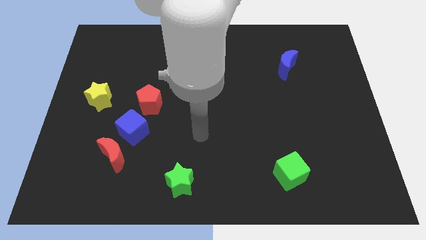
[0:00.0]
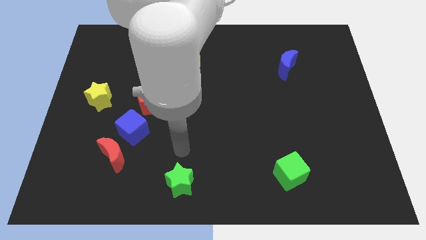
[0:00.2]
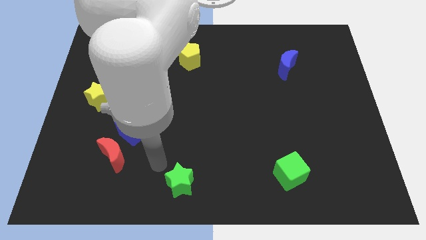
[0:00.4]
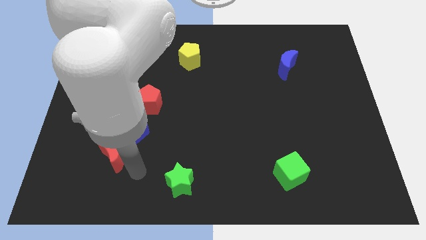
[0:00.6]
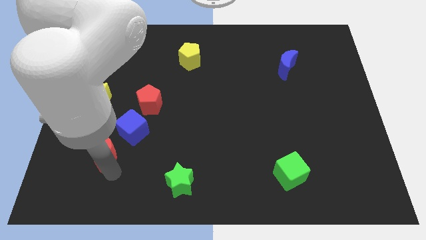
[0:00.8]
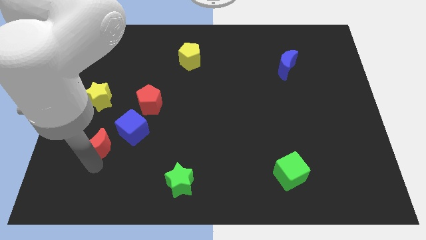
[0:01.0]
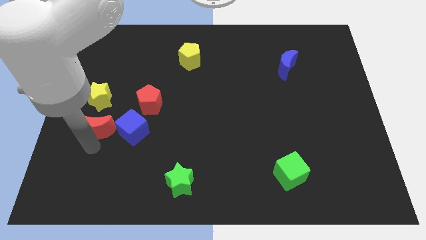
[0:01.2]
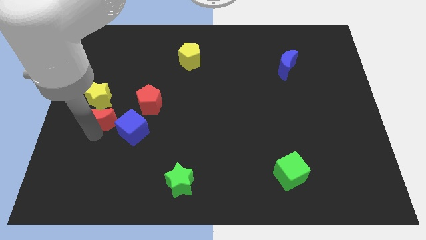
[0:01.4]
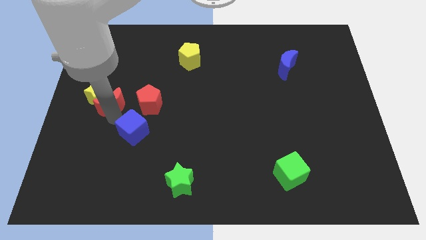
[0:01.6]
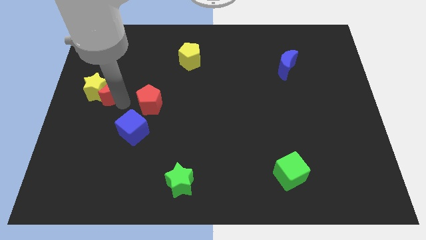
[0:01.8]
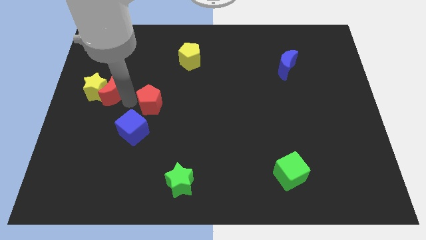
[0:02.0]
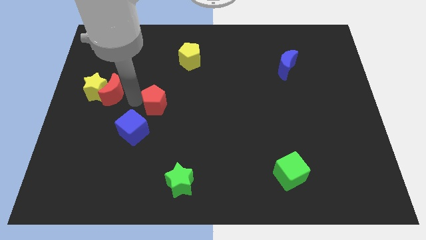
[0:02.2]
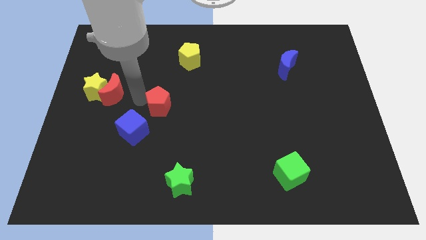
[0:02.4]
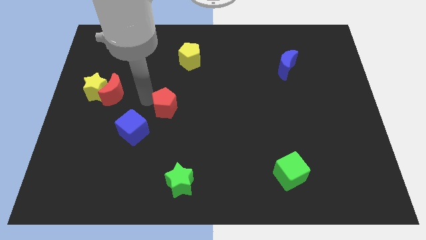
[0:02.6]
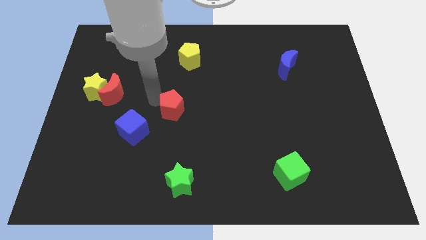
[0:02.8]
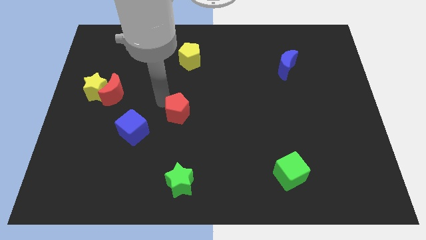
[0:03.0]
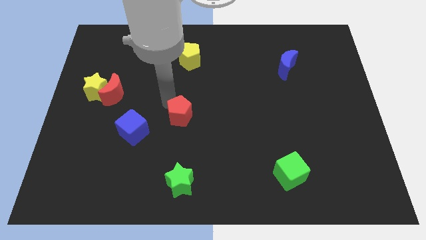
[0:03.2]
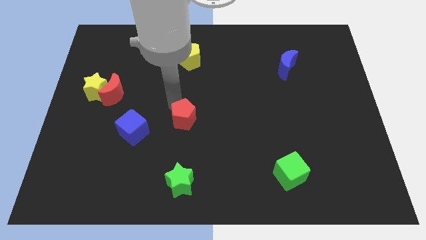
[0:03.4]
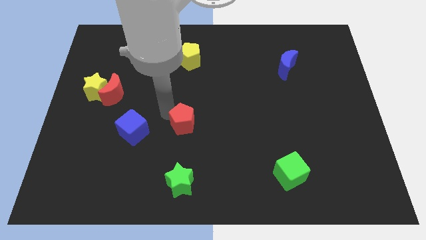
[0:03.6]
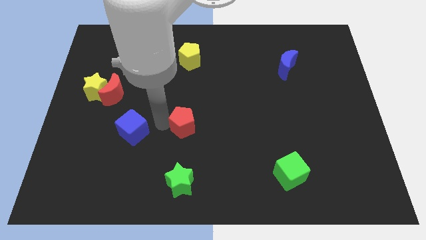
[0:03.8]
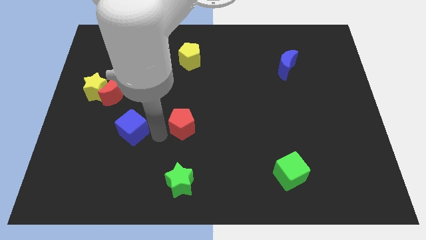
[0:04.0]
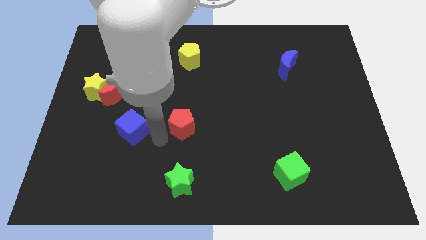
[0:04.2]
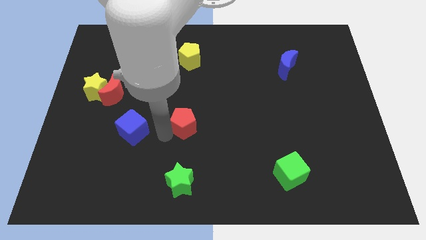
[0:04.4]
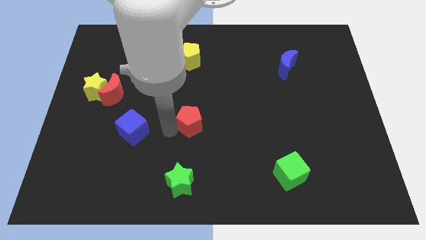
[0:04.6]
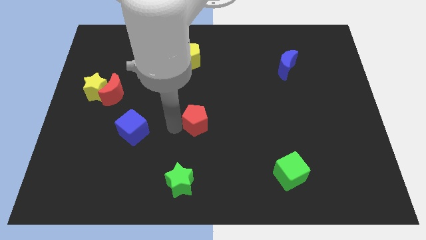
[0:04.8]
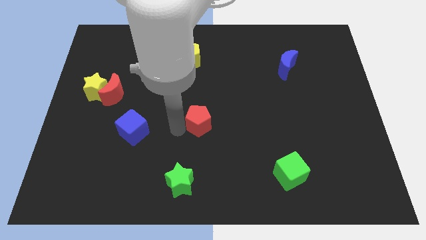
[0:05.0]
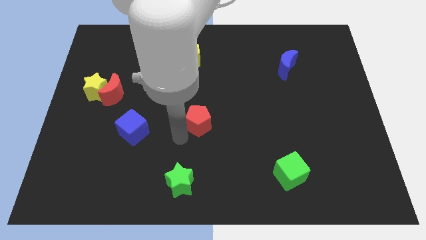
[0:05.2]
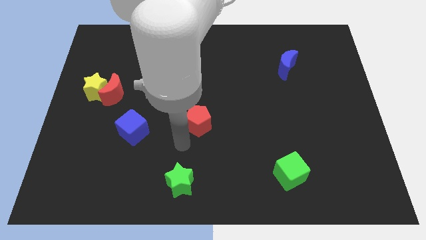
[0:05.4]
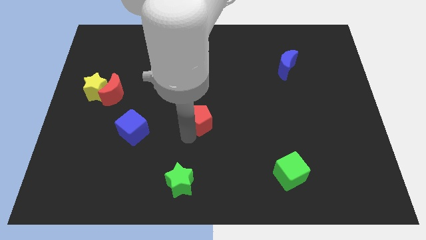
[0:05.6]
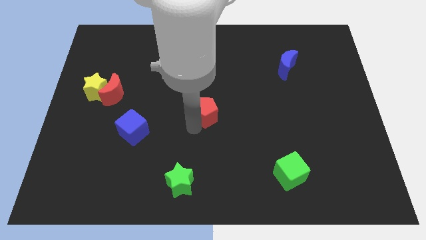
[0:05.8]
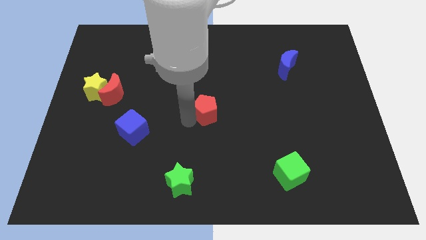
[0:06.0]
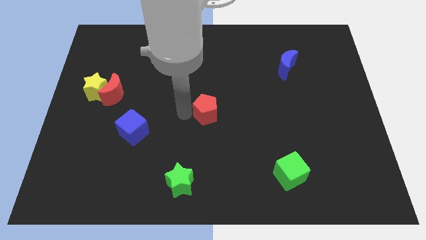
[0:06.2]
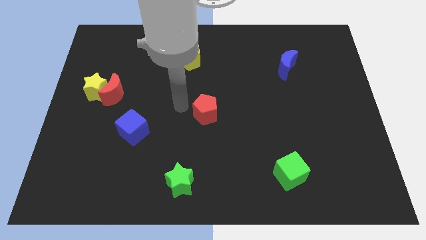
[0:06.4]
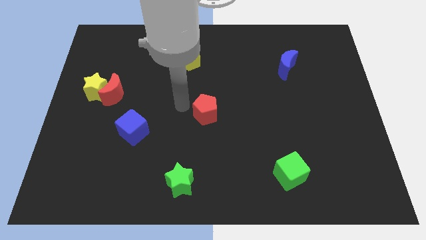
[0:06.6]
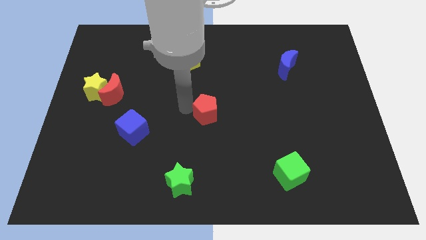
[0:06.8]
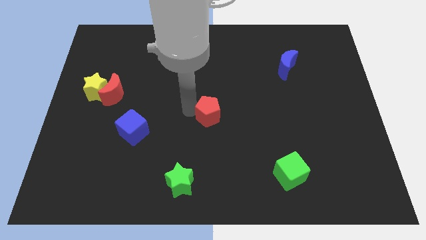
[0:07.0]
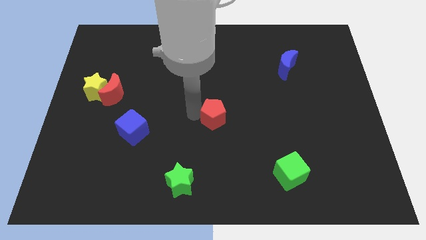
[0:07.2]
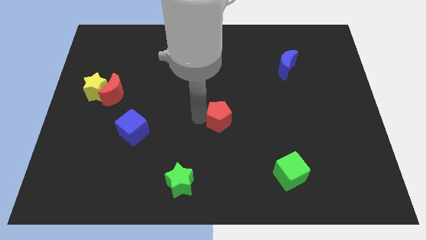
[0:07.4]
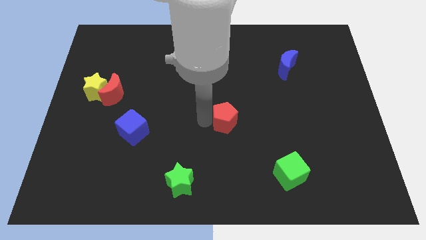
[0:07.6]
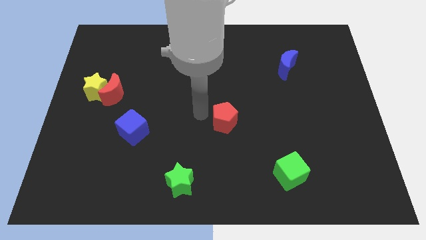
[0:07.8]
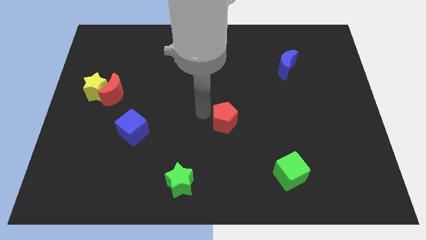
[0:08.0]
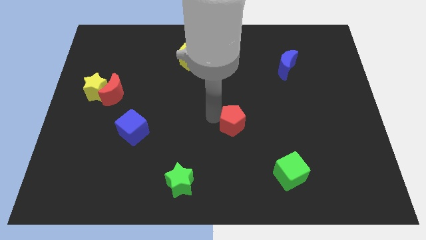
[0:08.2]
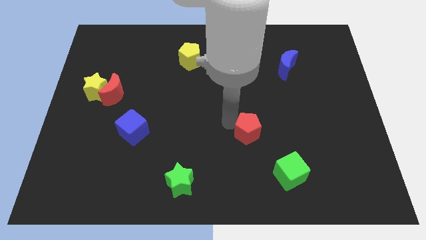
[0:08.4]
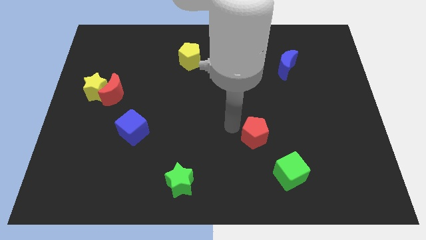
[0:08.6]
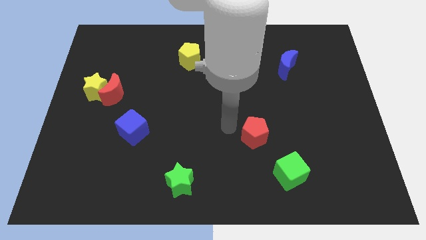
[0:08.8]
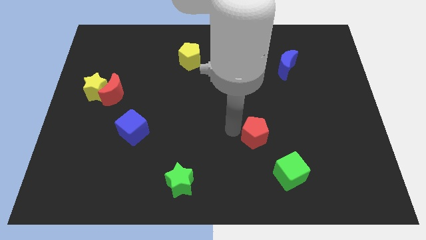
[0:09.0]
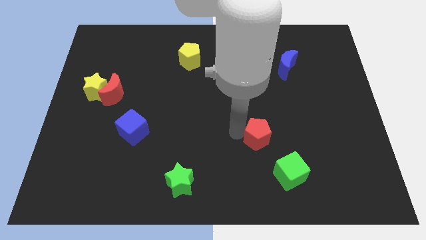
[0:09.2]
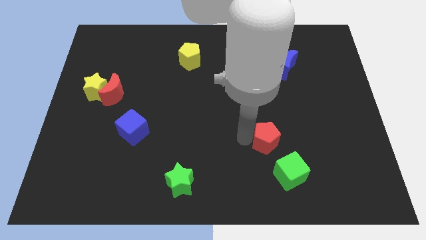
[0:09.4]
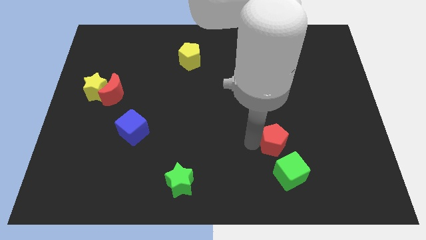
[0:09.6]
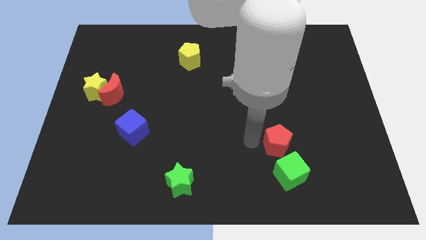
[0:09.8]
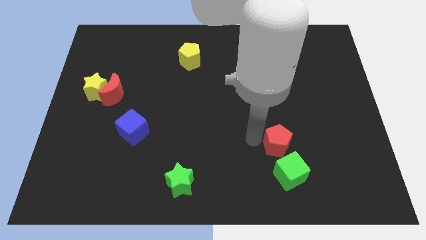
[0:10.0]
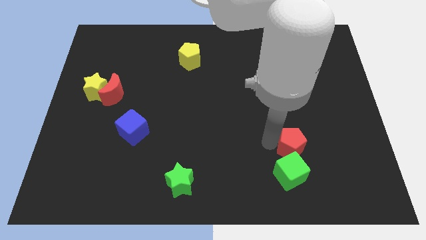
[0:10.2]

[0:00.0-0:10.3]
move the red pentagon to the top right side of the green cube

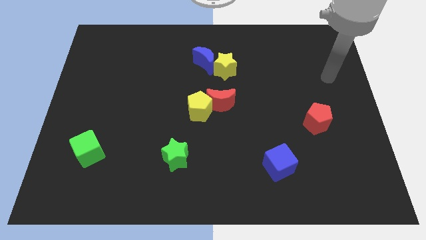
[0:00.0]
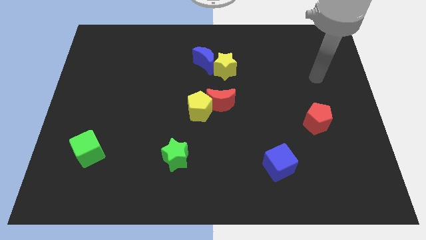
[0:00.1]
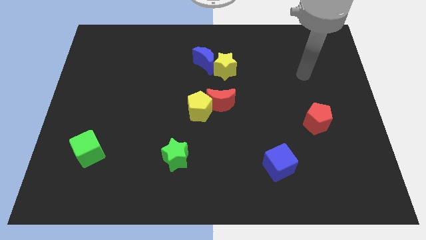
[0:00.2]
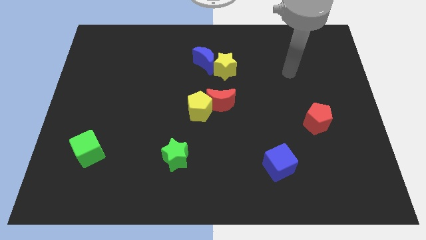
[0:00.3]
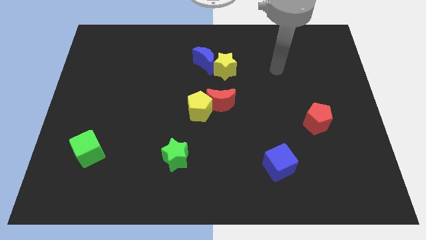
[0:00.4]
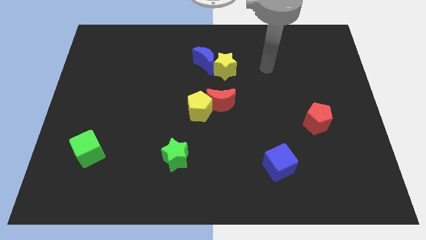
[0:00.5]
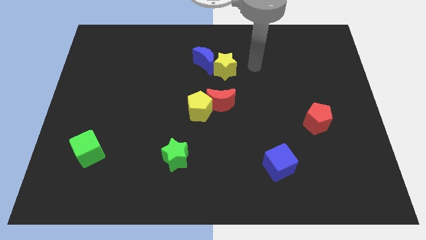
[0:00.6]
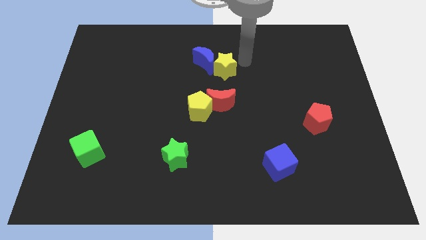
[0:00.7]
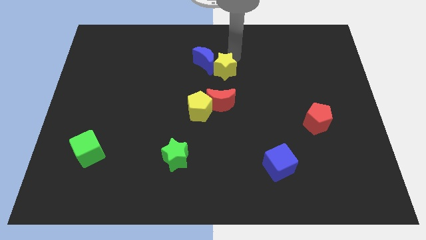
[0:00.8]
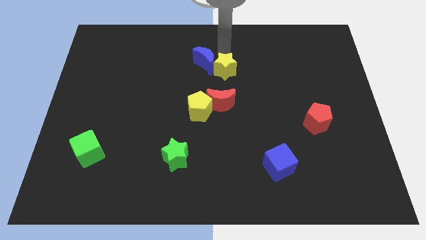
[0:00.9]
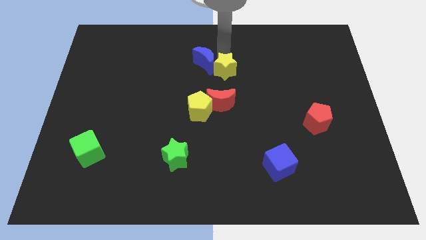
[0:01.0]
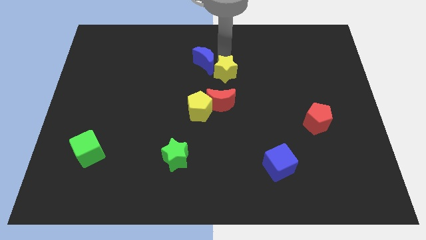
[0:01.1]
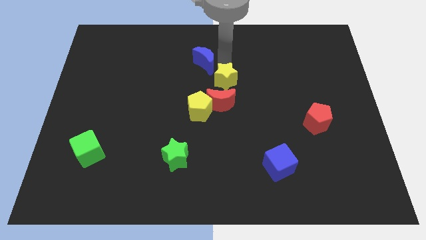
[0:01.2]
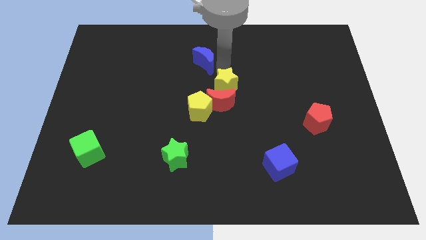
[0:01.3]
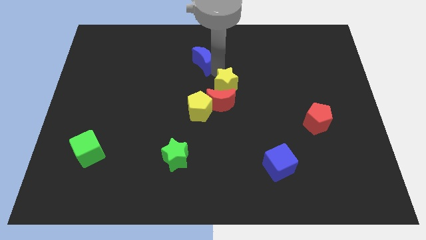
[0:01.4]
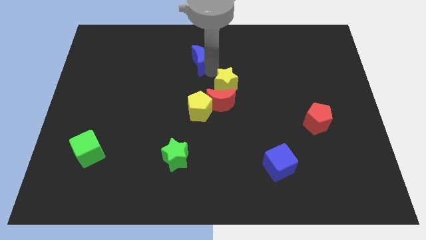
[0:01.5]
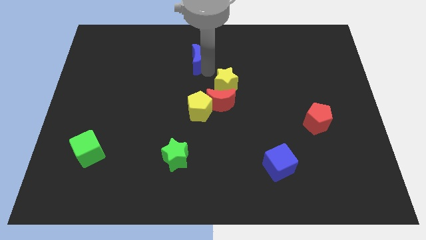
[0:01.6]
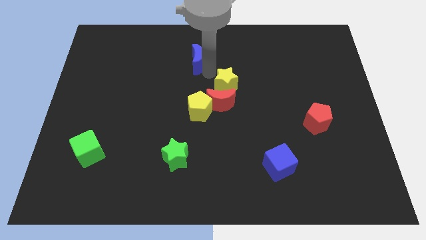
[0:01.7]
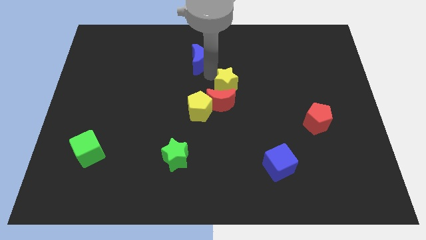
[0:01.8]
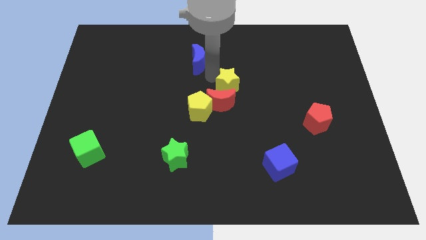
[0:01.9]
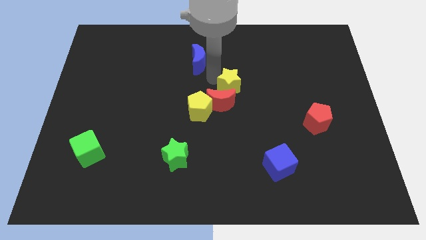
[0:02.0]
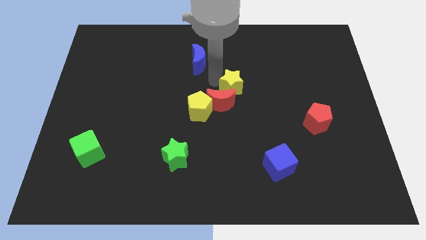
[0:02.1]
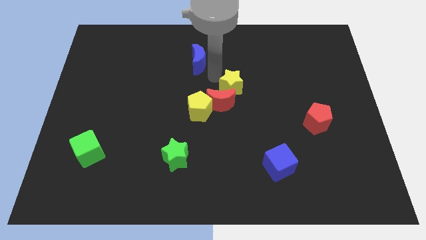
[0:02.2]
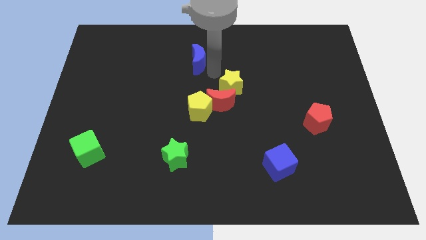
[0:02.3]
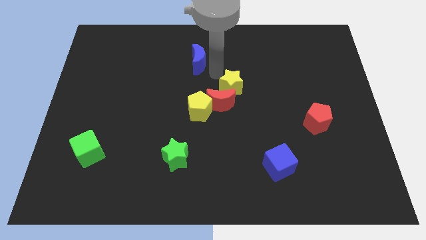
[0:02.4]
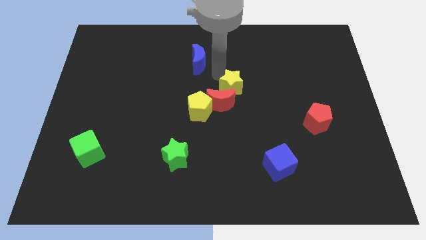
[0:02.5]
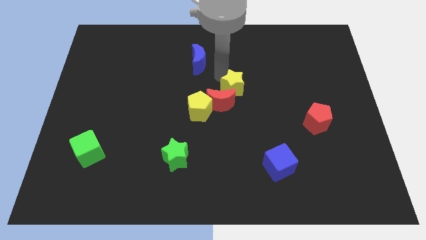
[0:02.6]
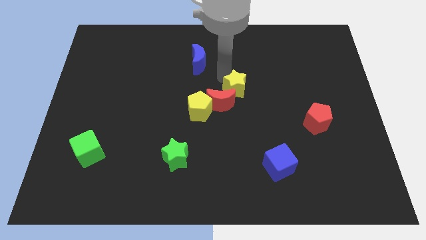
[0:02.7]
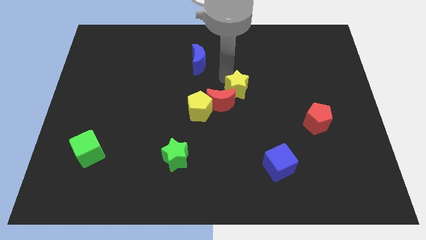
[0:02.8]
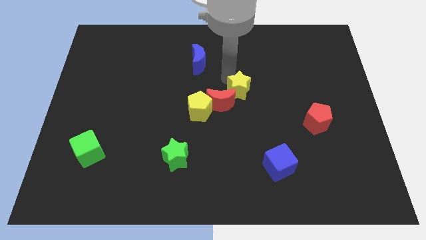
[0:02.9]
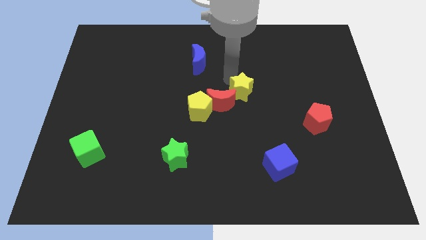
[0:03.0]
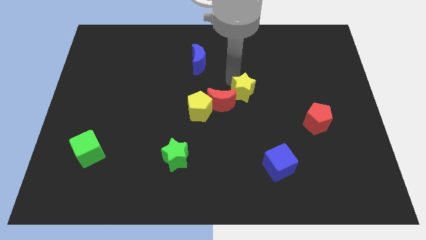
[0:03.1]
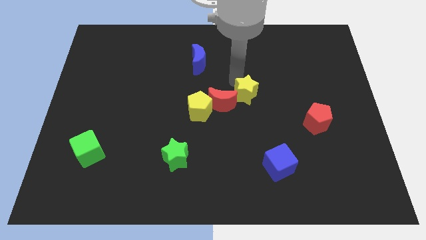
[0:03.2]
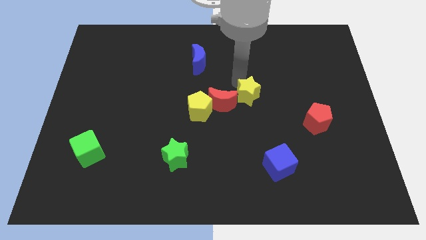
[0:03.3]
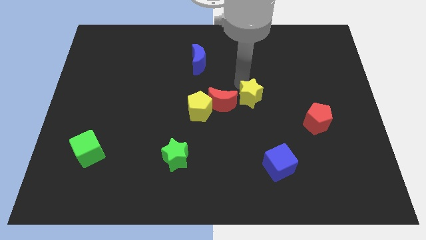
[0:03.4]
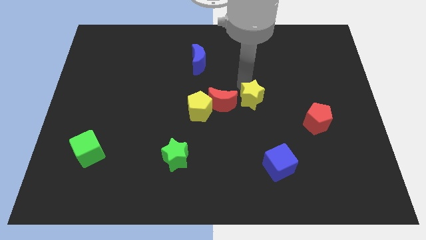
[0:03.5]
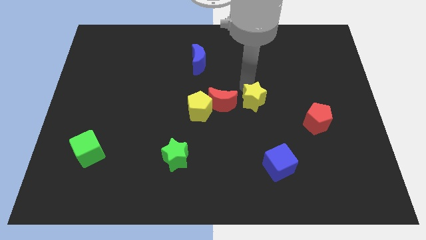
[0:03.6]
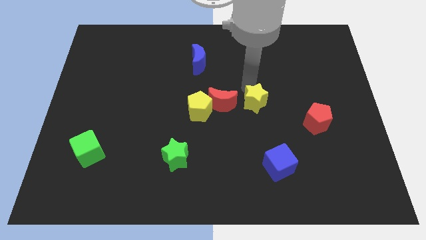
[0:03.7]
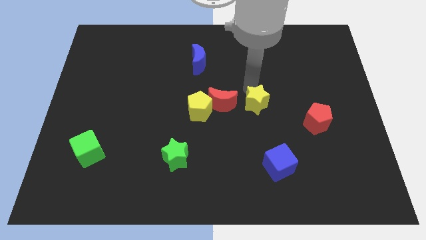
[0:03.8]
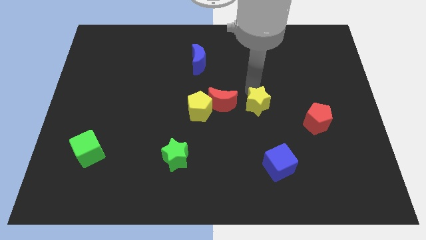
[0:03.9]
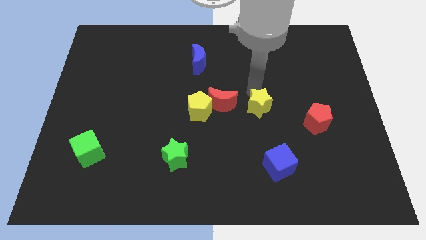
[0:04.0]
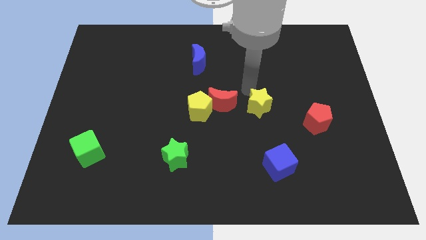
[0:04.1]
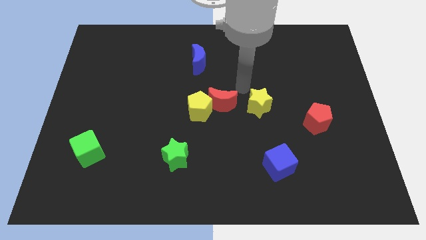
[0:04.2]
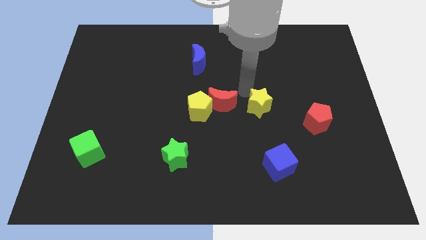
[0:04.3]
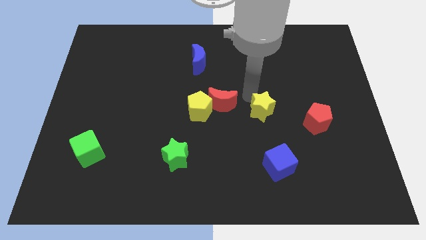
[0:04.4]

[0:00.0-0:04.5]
push the yellow star to the top of the blue cube
